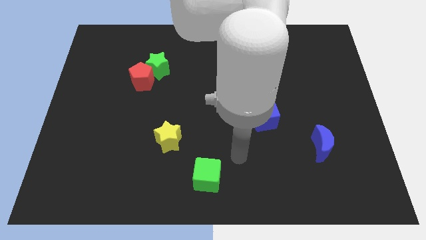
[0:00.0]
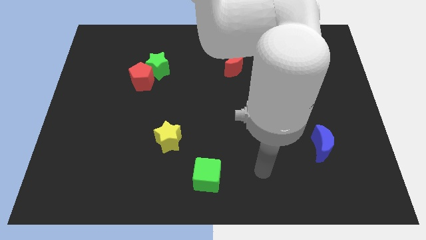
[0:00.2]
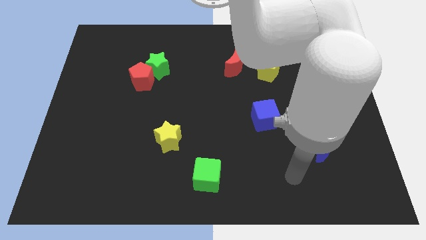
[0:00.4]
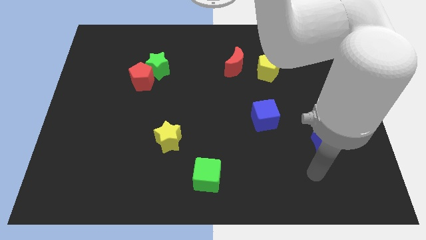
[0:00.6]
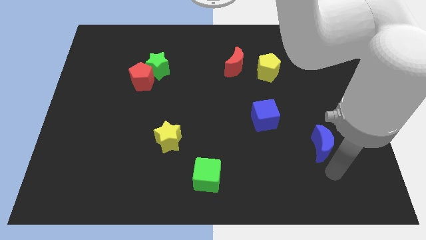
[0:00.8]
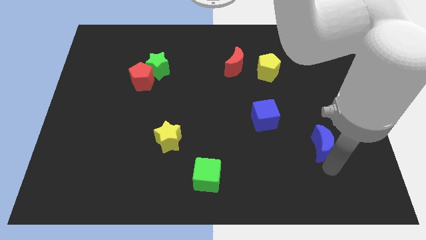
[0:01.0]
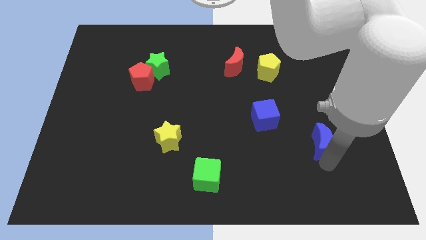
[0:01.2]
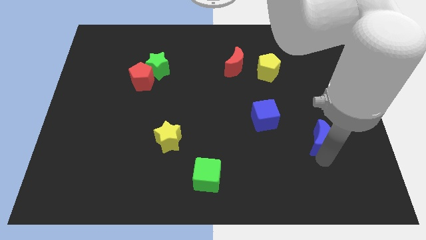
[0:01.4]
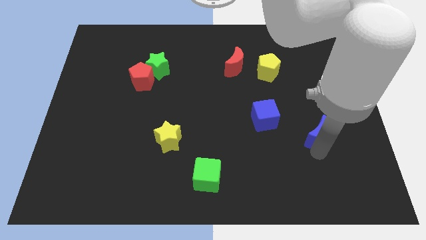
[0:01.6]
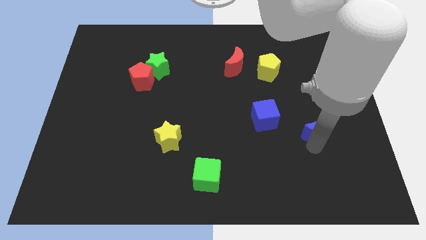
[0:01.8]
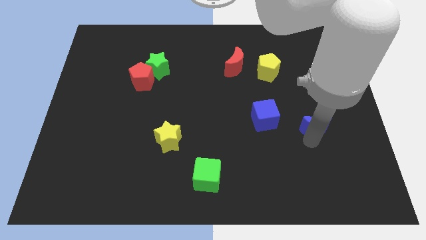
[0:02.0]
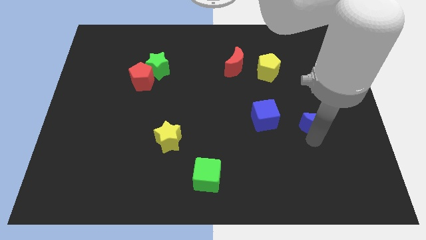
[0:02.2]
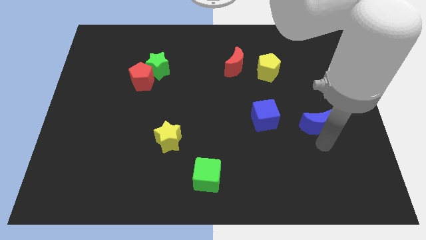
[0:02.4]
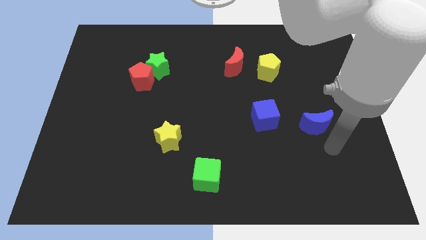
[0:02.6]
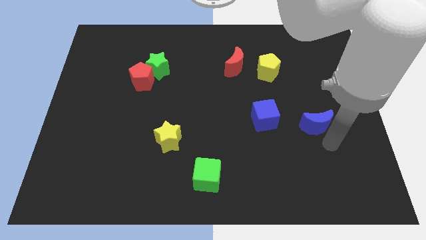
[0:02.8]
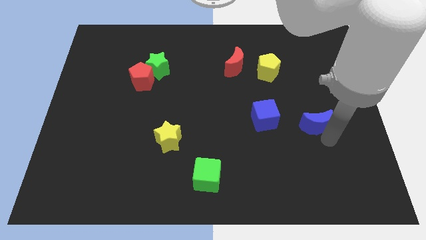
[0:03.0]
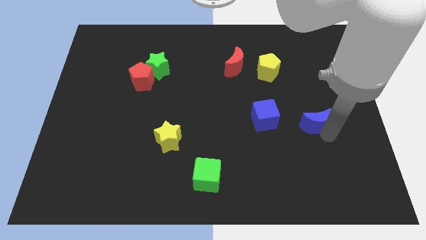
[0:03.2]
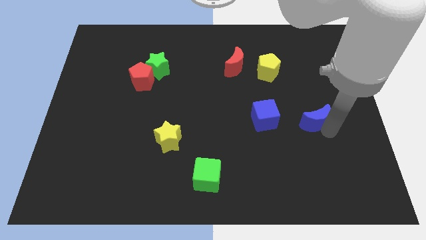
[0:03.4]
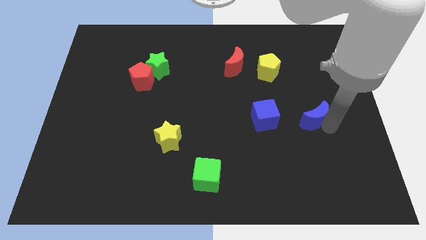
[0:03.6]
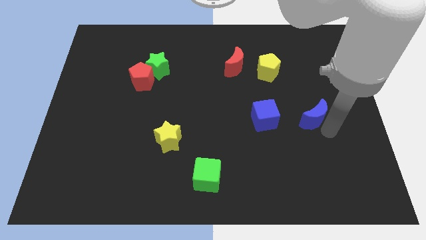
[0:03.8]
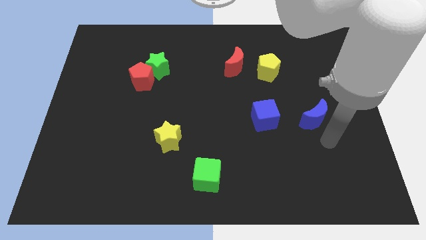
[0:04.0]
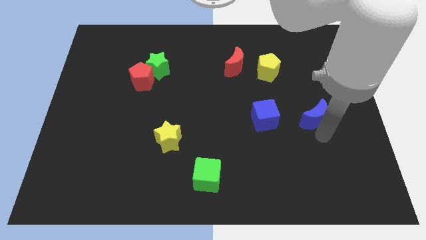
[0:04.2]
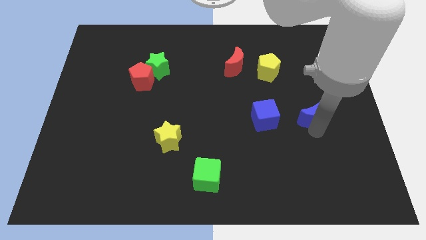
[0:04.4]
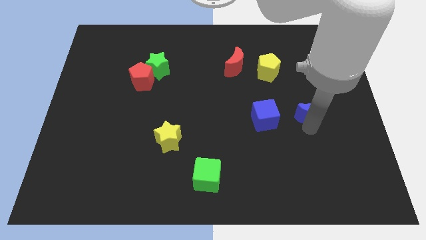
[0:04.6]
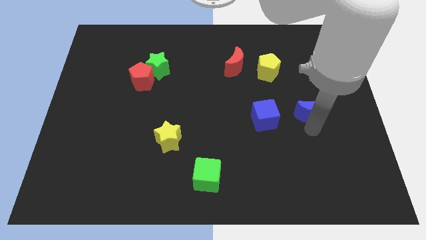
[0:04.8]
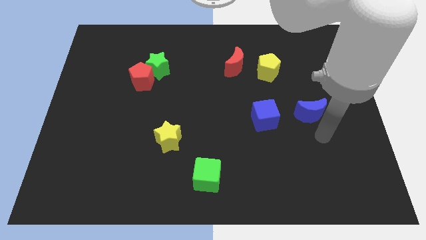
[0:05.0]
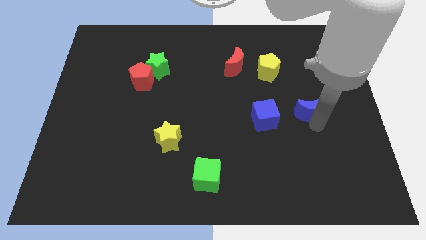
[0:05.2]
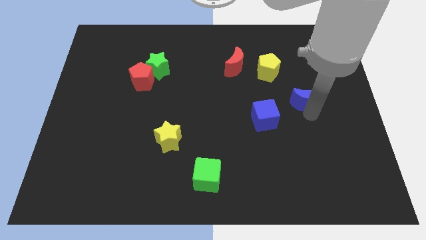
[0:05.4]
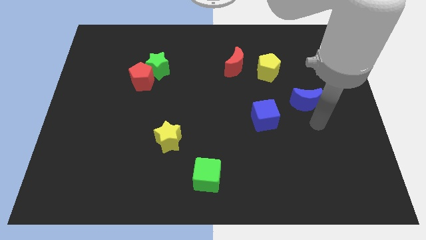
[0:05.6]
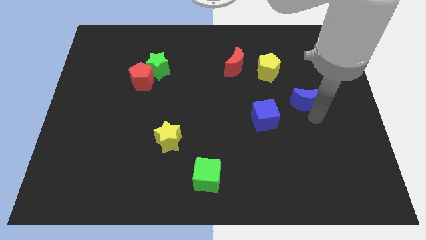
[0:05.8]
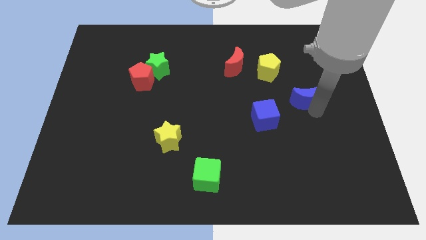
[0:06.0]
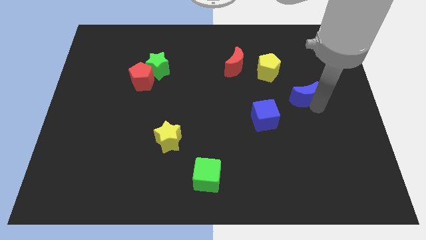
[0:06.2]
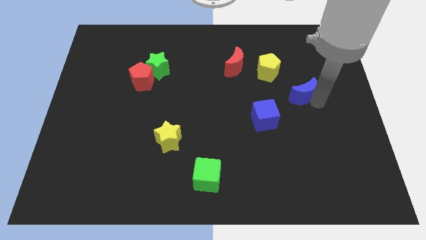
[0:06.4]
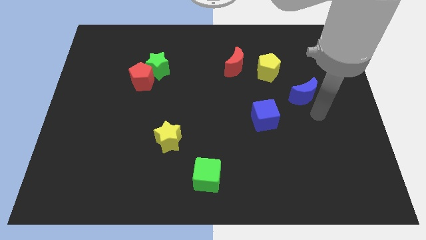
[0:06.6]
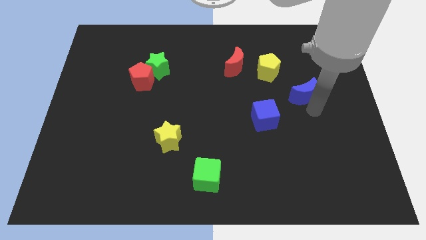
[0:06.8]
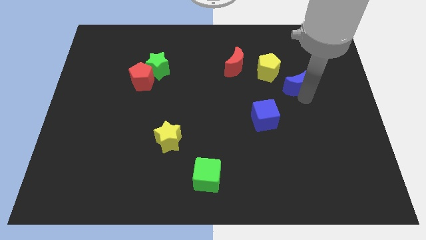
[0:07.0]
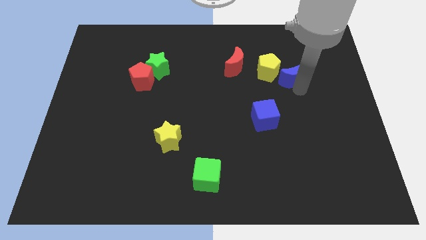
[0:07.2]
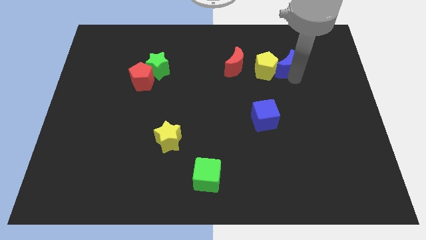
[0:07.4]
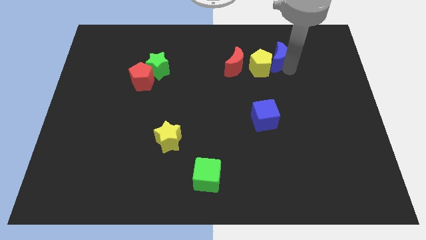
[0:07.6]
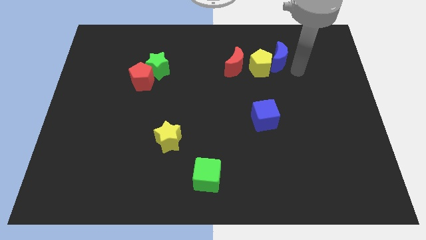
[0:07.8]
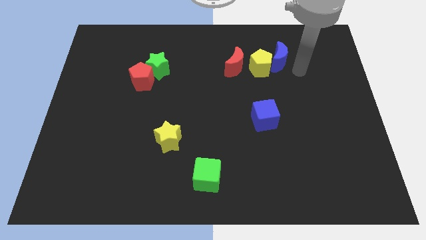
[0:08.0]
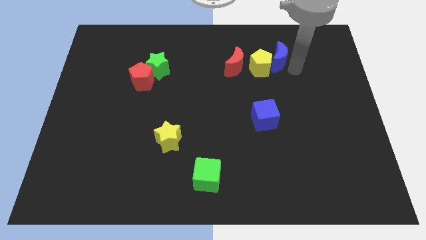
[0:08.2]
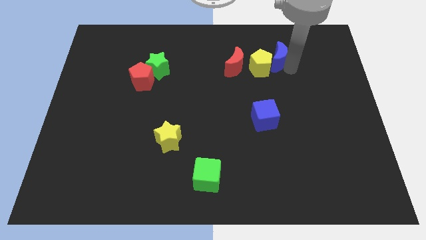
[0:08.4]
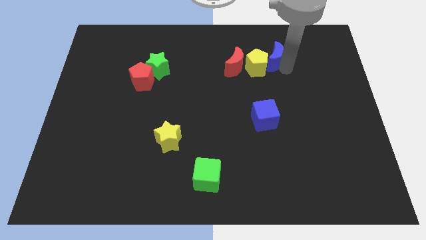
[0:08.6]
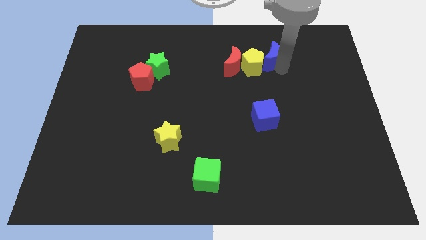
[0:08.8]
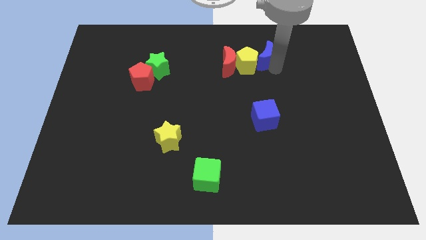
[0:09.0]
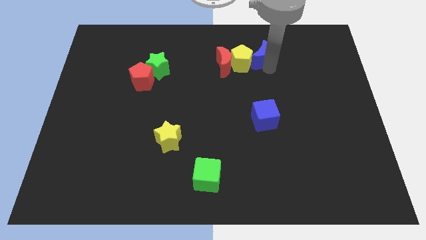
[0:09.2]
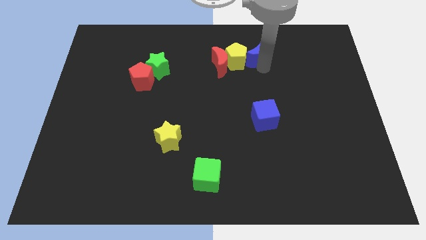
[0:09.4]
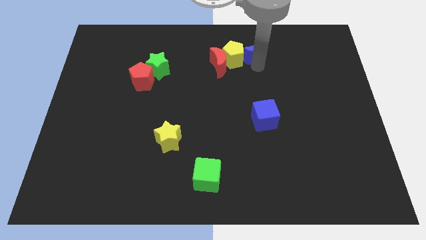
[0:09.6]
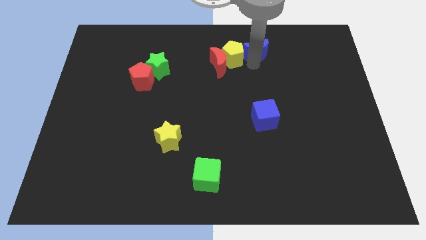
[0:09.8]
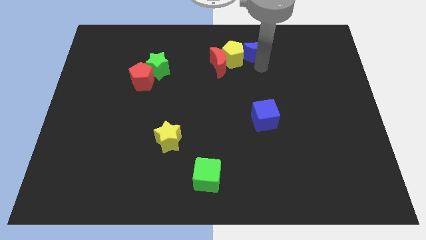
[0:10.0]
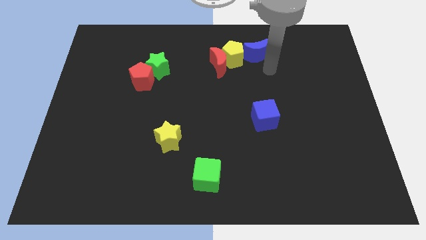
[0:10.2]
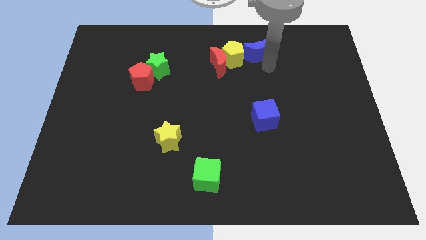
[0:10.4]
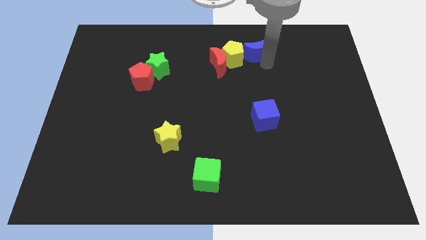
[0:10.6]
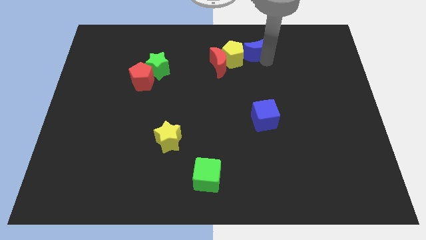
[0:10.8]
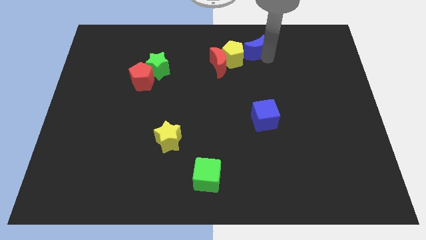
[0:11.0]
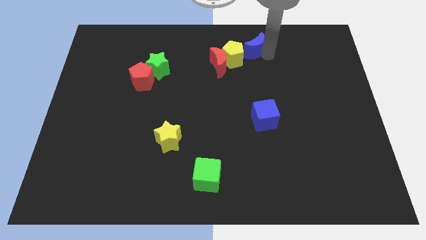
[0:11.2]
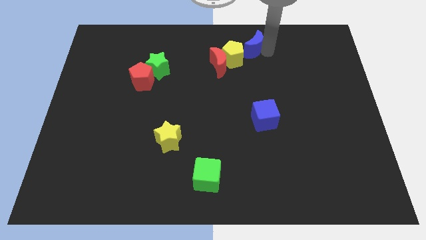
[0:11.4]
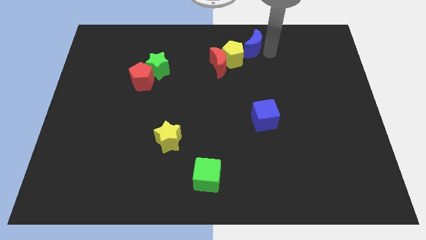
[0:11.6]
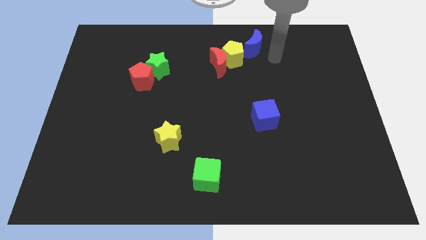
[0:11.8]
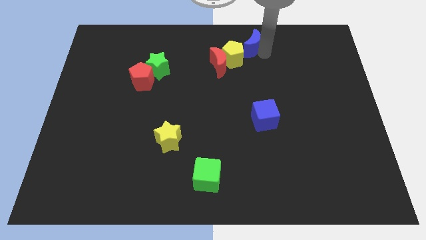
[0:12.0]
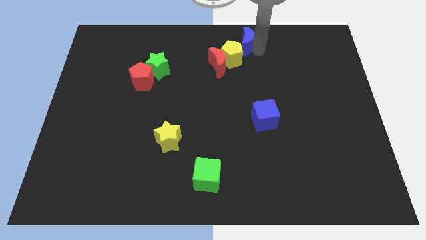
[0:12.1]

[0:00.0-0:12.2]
slide the blue moon to the top side
